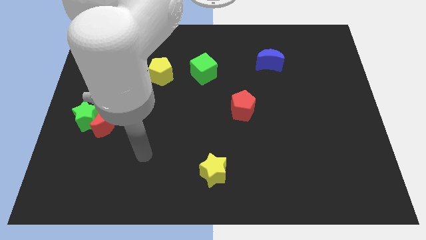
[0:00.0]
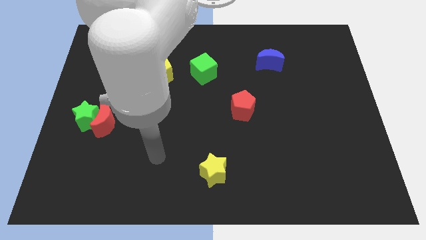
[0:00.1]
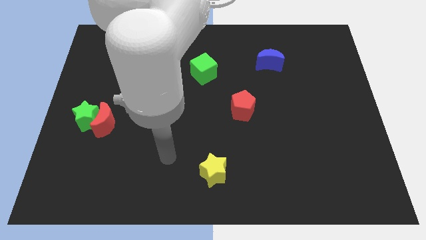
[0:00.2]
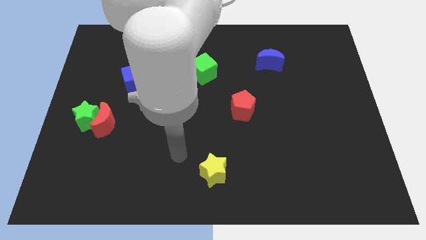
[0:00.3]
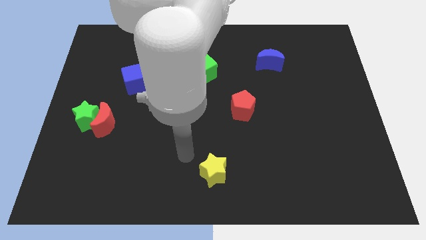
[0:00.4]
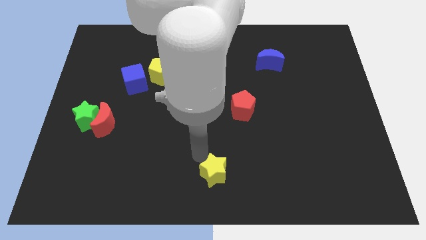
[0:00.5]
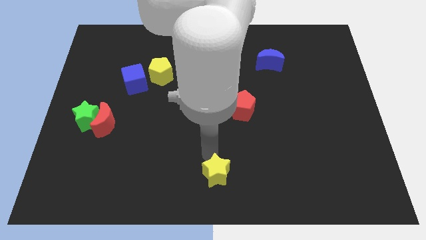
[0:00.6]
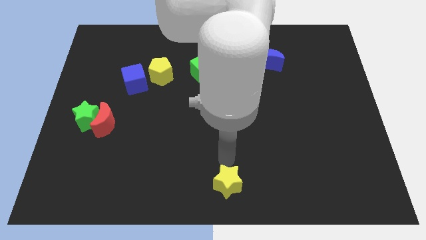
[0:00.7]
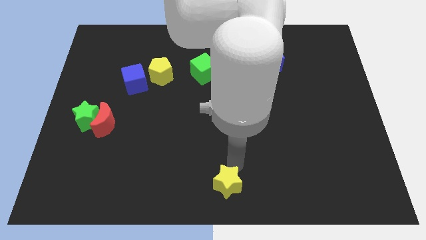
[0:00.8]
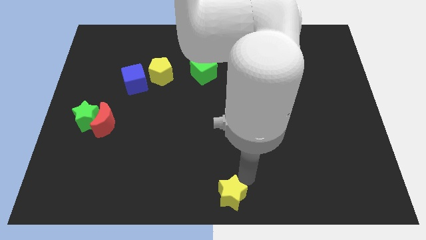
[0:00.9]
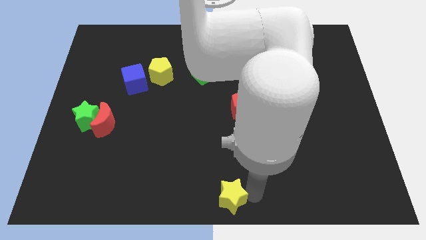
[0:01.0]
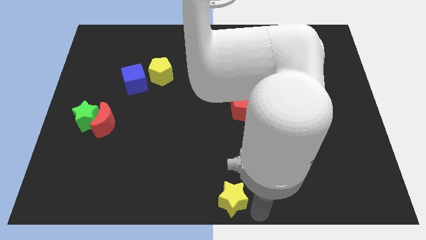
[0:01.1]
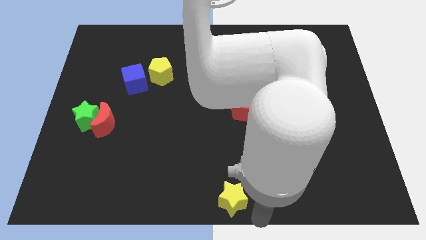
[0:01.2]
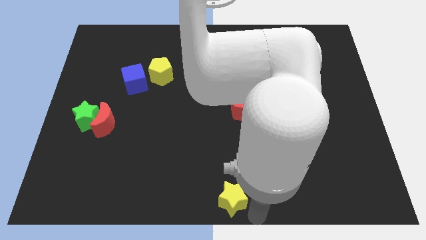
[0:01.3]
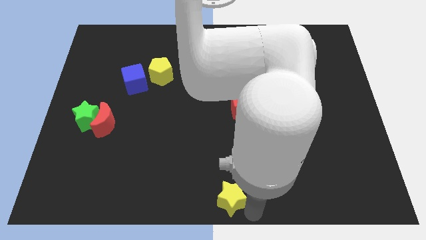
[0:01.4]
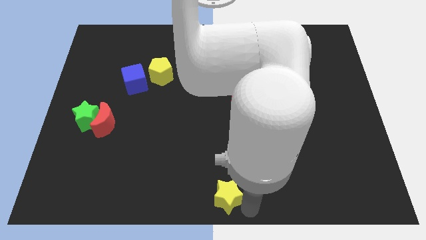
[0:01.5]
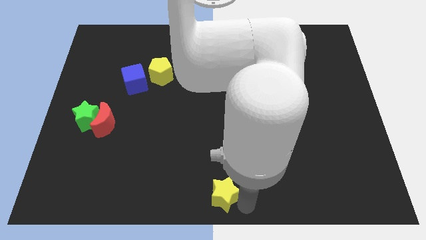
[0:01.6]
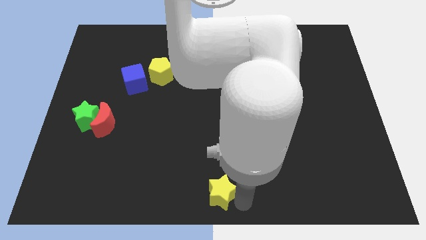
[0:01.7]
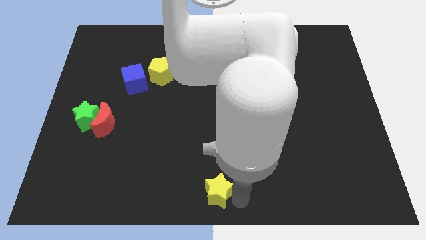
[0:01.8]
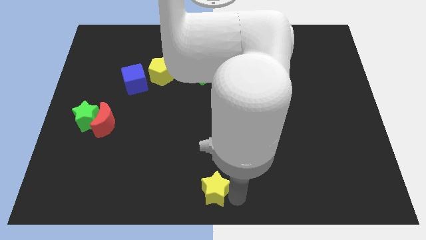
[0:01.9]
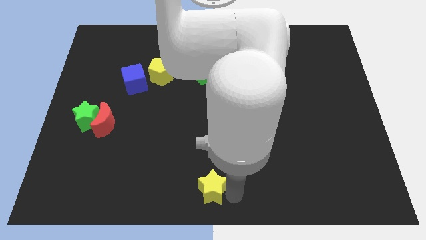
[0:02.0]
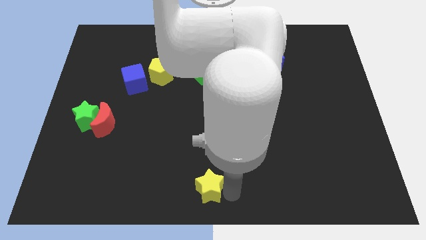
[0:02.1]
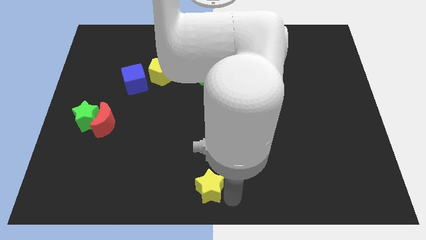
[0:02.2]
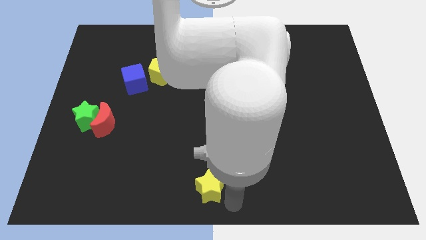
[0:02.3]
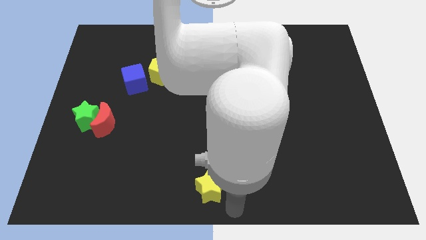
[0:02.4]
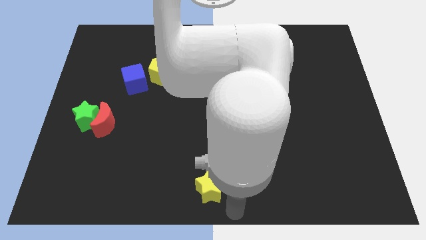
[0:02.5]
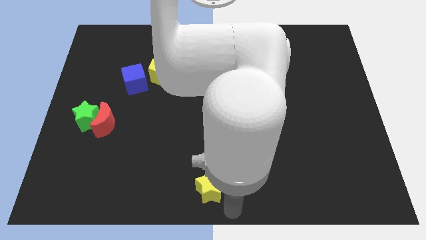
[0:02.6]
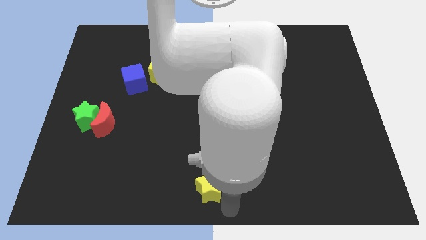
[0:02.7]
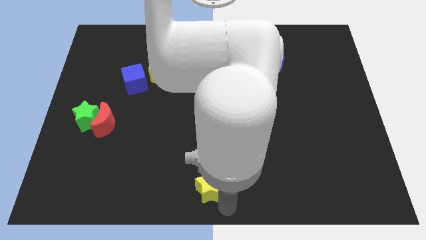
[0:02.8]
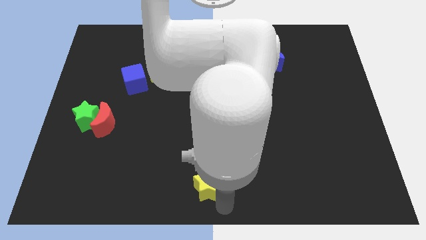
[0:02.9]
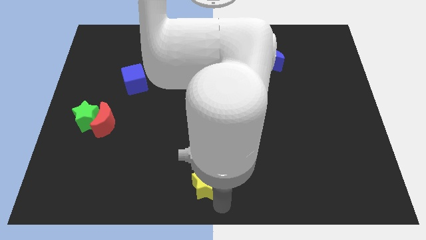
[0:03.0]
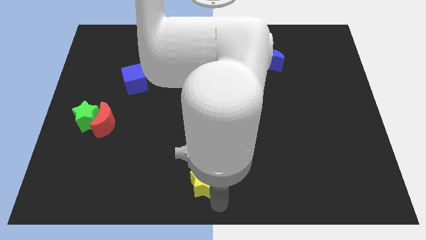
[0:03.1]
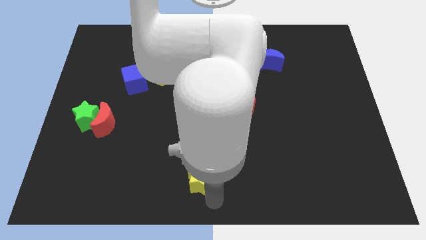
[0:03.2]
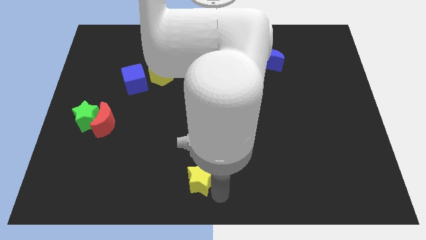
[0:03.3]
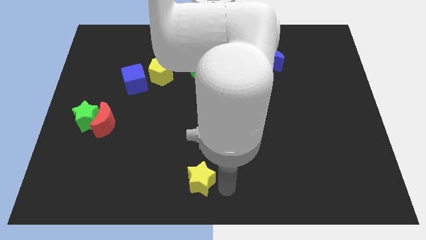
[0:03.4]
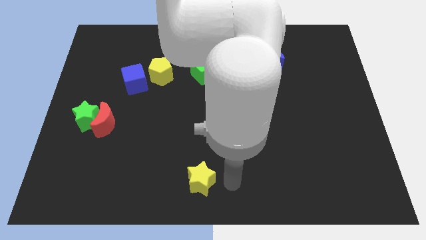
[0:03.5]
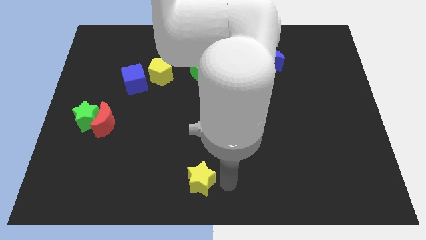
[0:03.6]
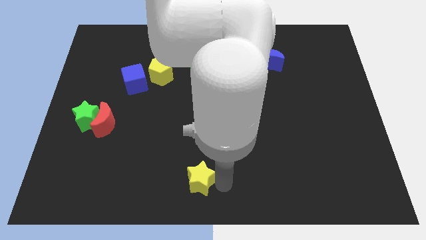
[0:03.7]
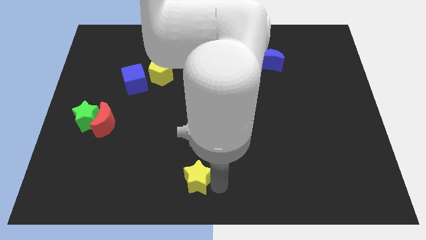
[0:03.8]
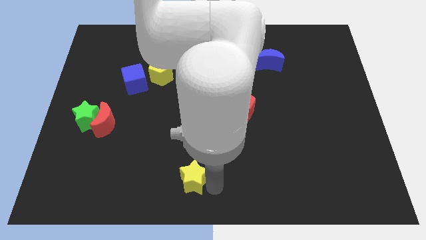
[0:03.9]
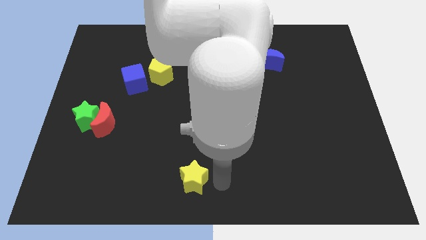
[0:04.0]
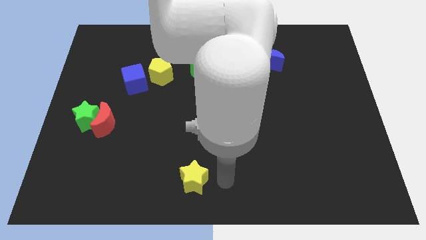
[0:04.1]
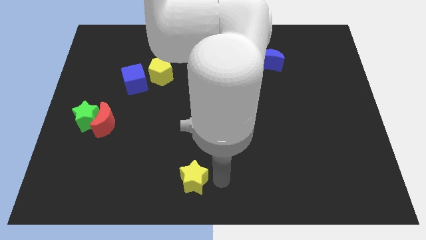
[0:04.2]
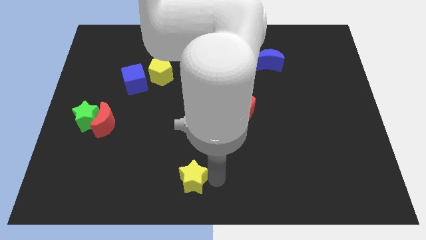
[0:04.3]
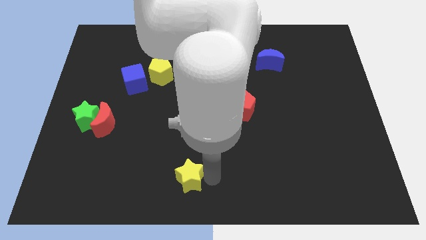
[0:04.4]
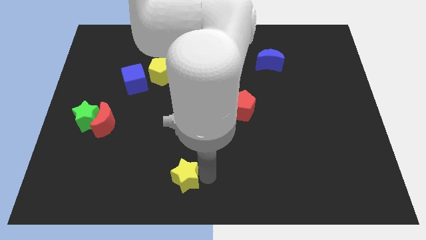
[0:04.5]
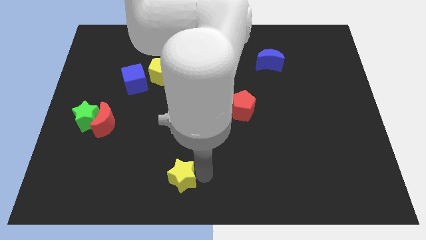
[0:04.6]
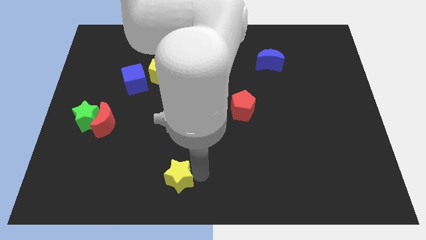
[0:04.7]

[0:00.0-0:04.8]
slide the yellow star somewhat left

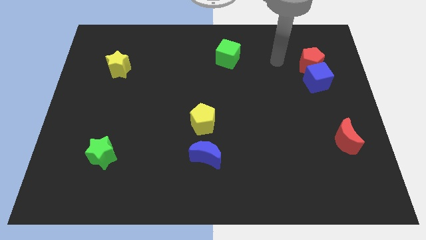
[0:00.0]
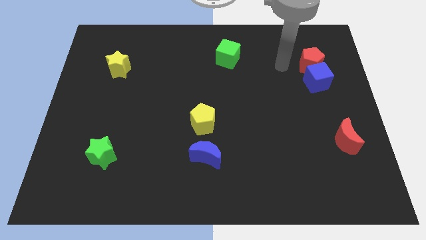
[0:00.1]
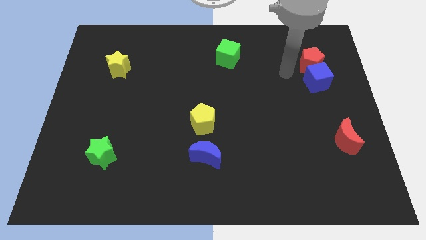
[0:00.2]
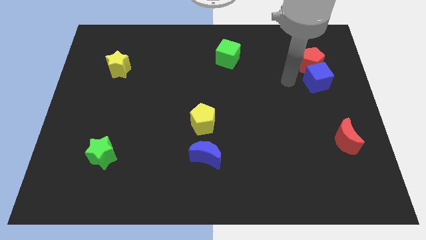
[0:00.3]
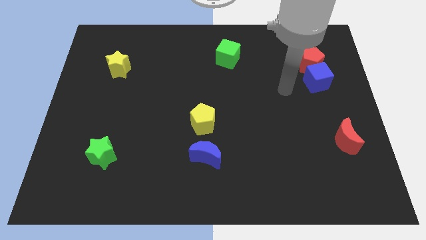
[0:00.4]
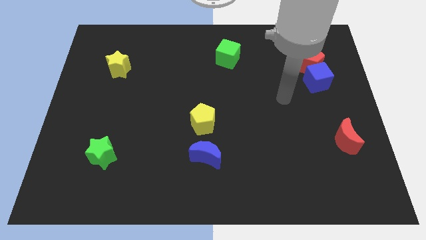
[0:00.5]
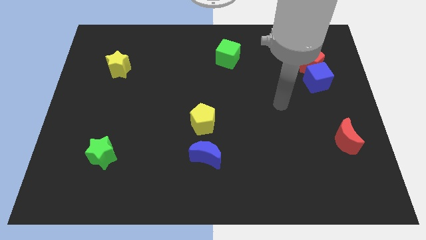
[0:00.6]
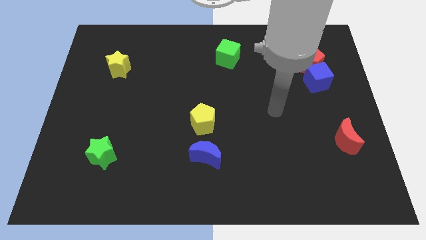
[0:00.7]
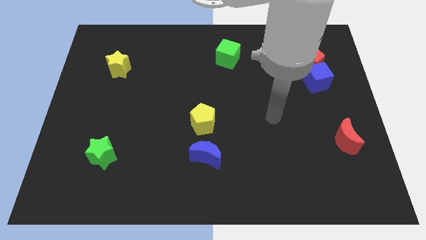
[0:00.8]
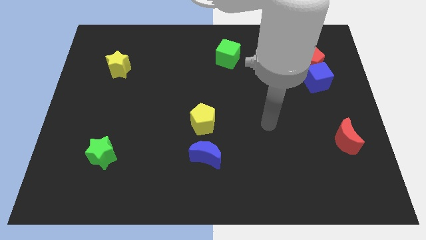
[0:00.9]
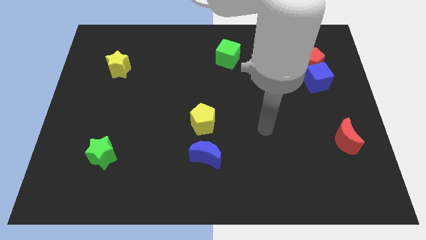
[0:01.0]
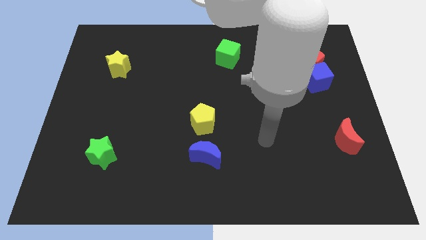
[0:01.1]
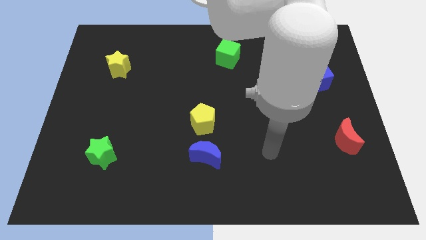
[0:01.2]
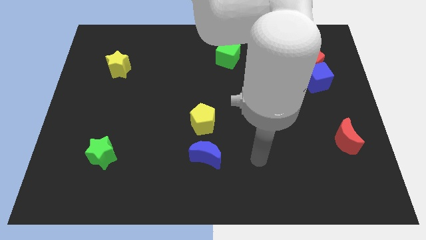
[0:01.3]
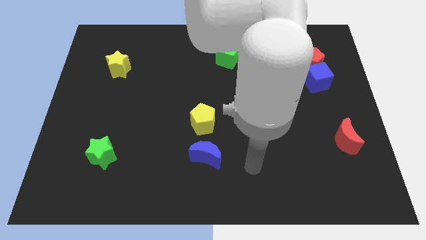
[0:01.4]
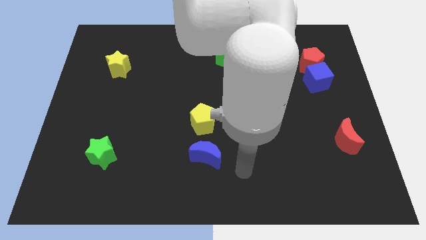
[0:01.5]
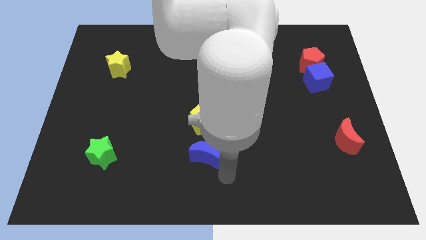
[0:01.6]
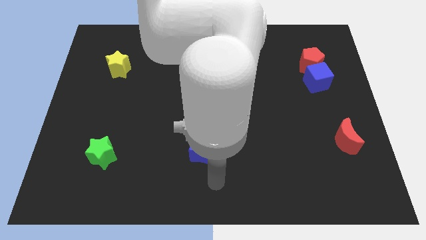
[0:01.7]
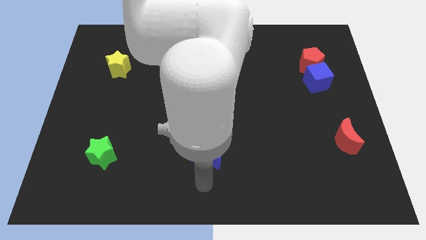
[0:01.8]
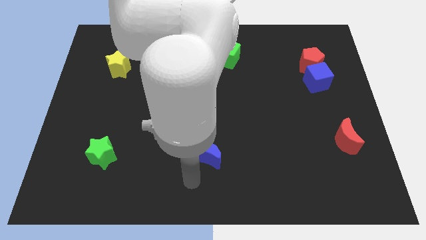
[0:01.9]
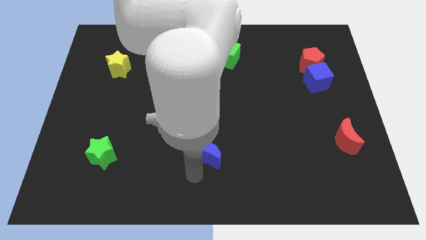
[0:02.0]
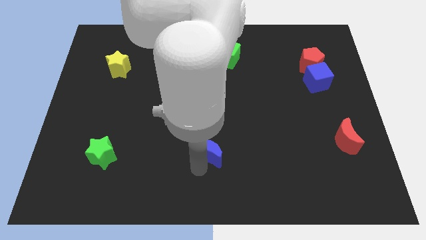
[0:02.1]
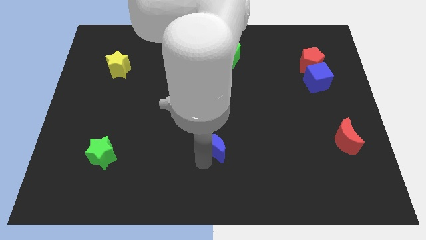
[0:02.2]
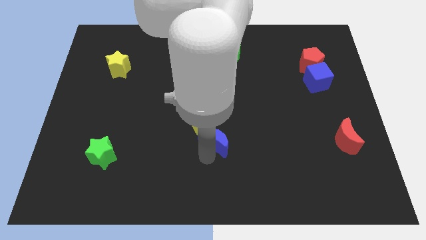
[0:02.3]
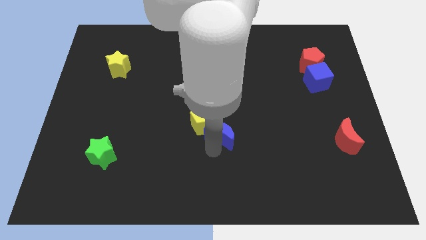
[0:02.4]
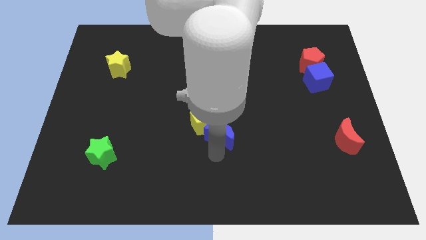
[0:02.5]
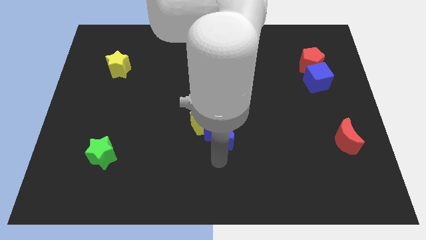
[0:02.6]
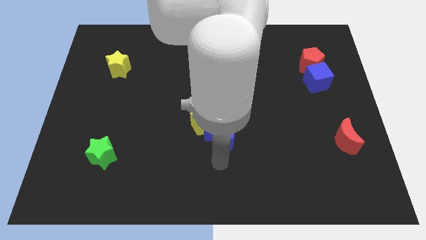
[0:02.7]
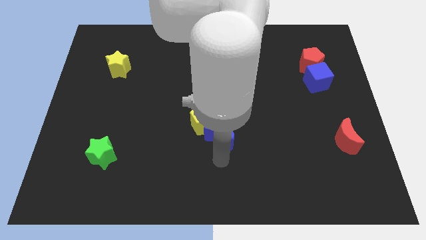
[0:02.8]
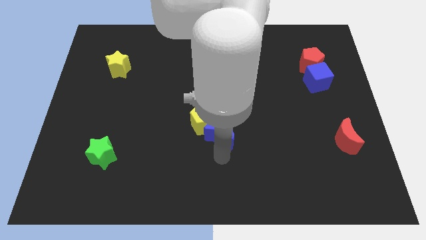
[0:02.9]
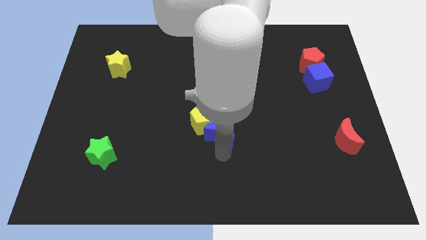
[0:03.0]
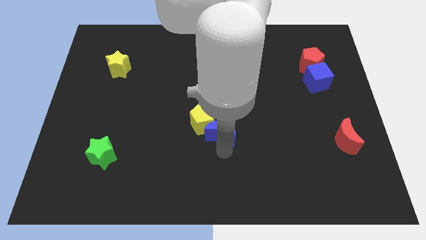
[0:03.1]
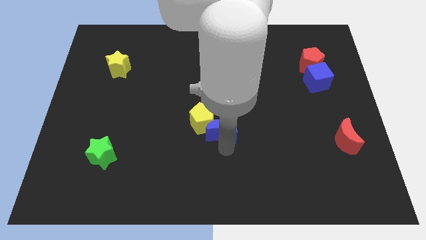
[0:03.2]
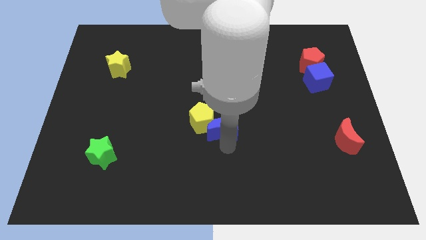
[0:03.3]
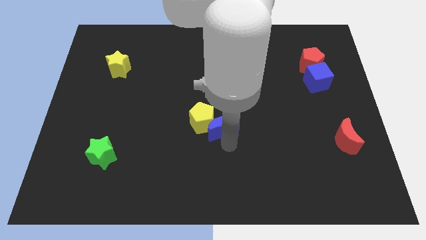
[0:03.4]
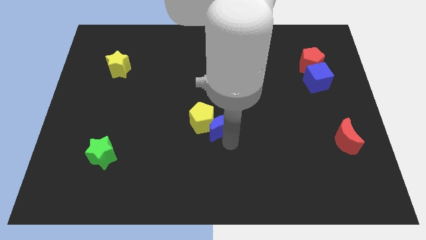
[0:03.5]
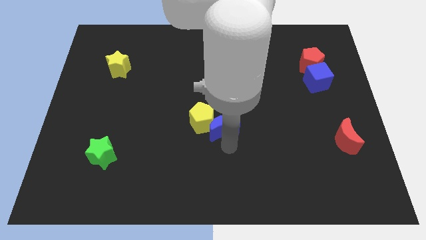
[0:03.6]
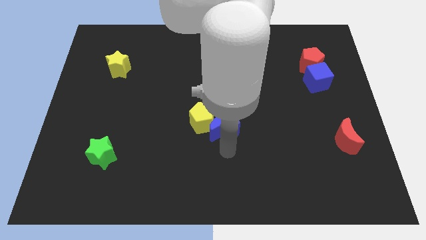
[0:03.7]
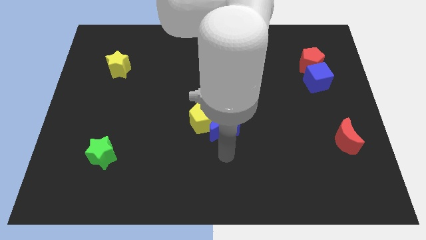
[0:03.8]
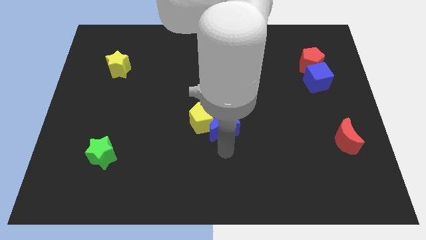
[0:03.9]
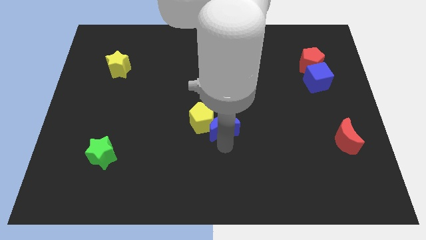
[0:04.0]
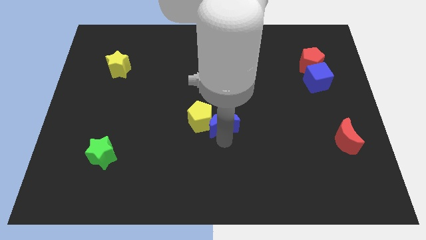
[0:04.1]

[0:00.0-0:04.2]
move the blue moon up a little
